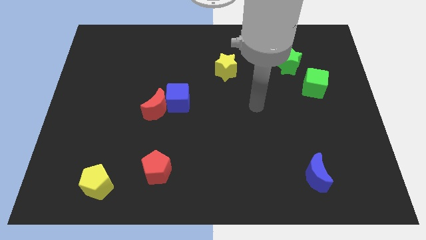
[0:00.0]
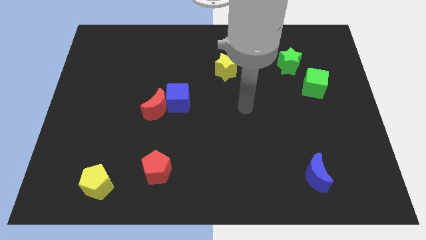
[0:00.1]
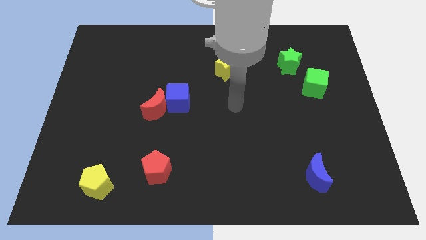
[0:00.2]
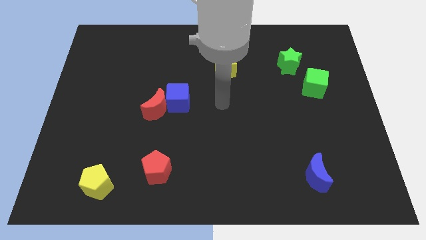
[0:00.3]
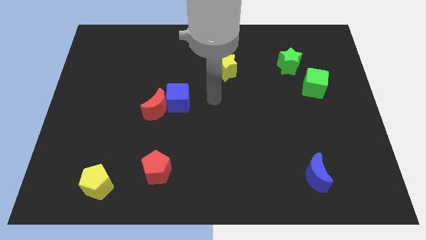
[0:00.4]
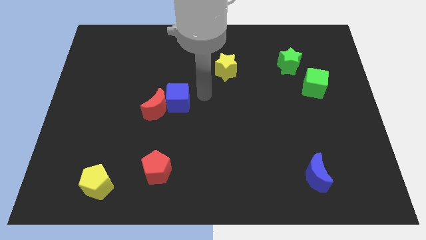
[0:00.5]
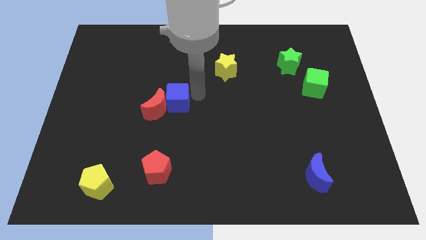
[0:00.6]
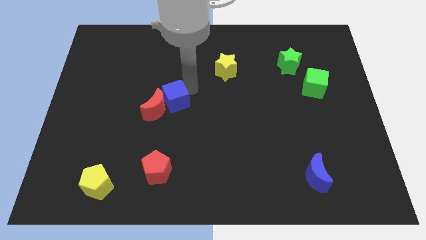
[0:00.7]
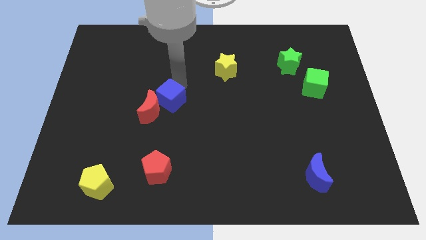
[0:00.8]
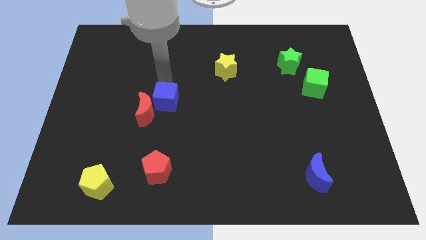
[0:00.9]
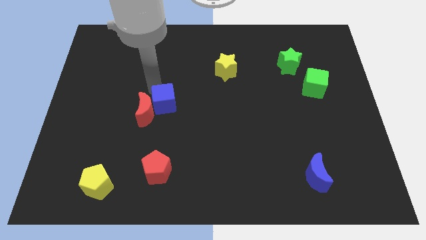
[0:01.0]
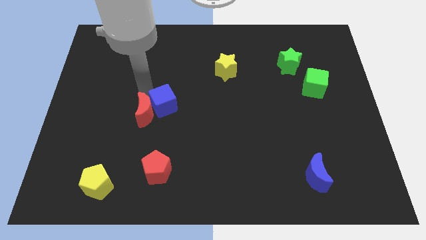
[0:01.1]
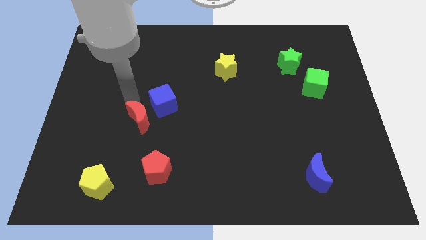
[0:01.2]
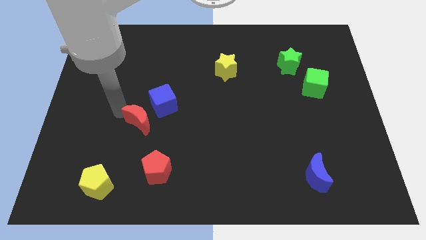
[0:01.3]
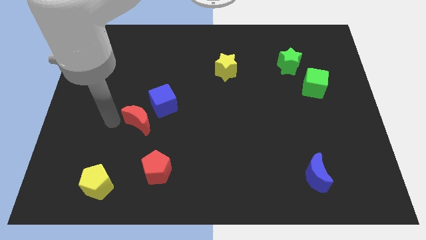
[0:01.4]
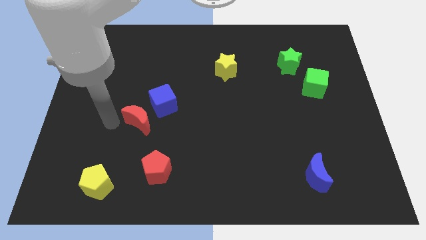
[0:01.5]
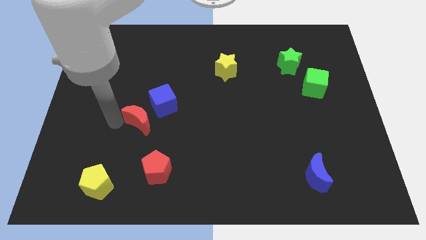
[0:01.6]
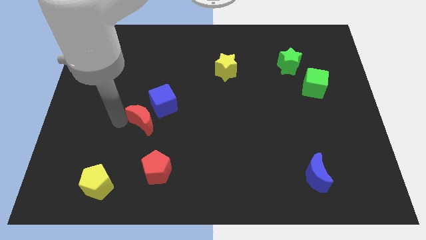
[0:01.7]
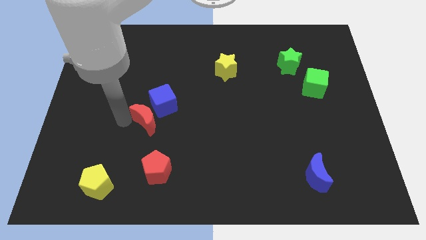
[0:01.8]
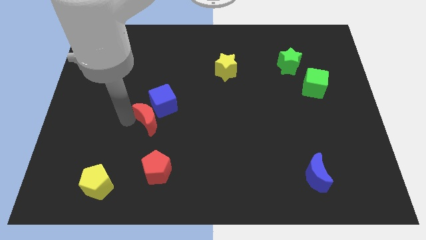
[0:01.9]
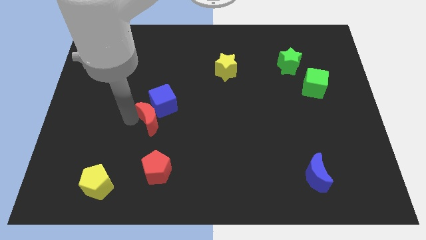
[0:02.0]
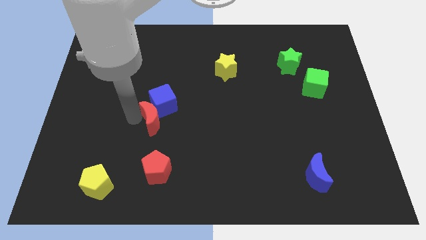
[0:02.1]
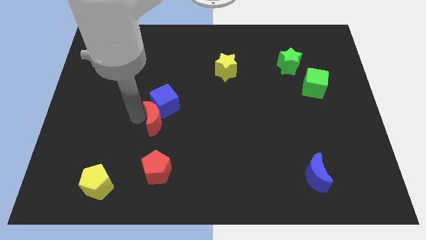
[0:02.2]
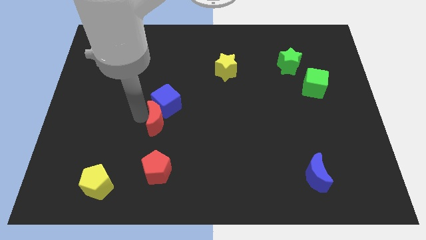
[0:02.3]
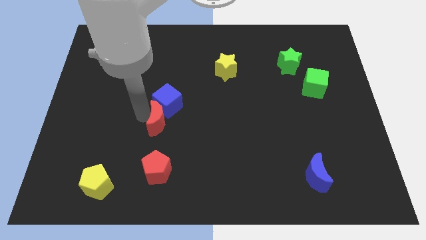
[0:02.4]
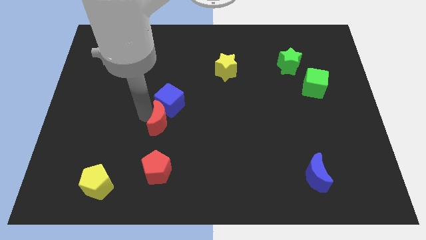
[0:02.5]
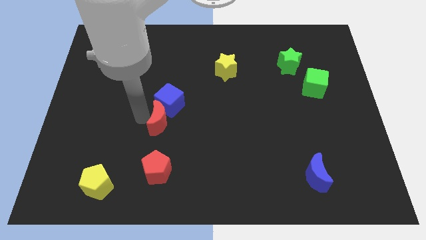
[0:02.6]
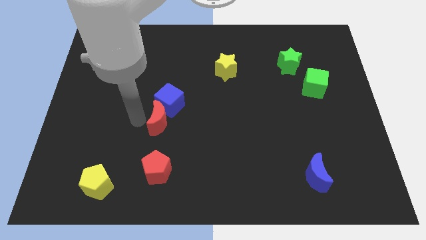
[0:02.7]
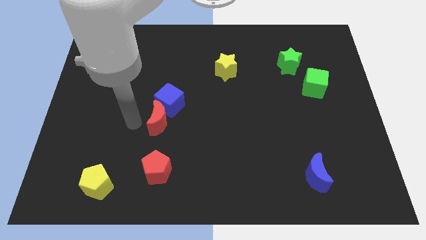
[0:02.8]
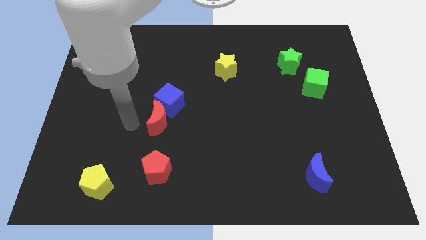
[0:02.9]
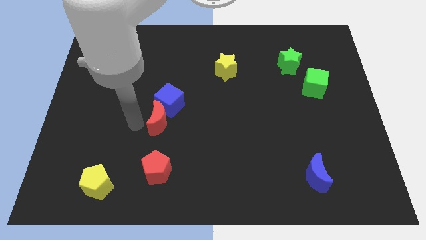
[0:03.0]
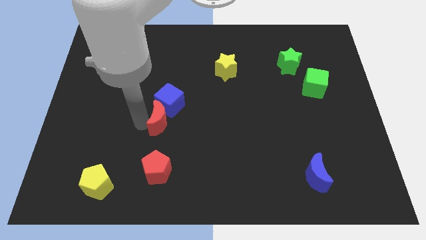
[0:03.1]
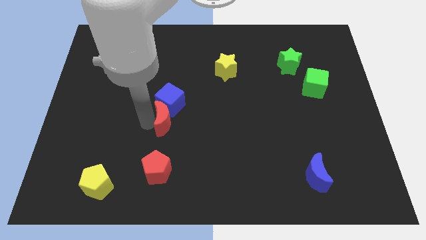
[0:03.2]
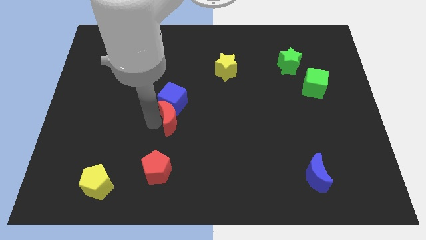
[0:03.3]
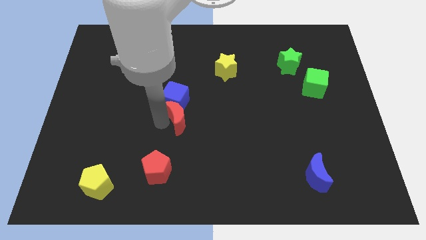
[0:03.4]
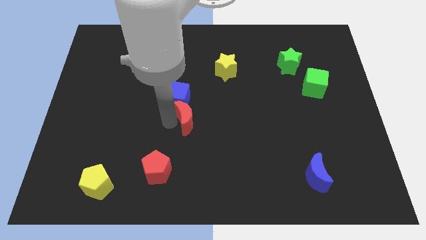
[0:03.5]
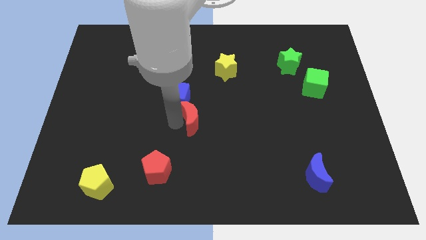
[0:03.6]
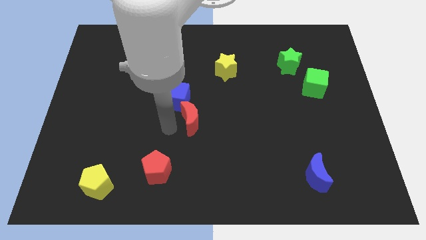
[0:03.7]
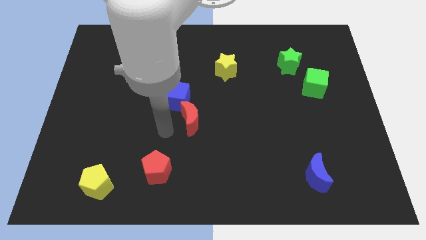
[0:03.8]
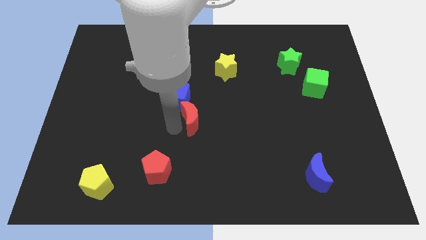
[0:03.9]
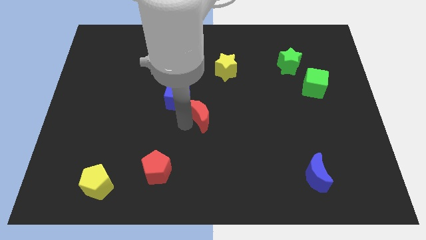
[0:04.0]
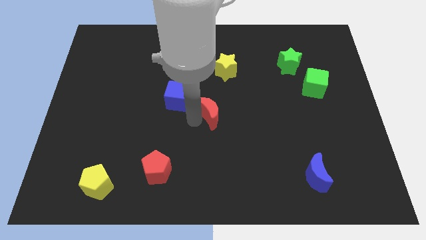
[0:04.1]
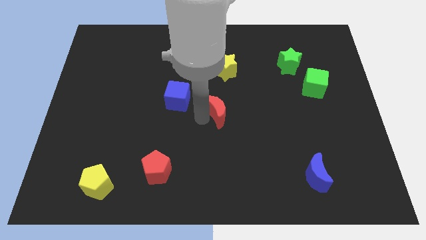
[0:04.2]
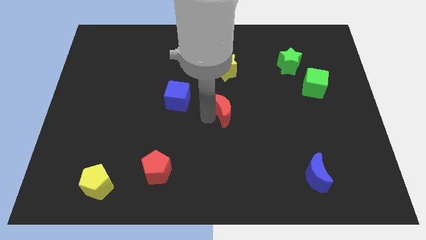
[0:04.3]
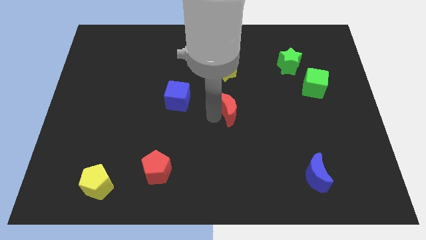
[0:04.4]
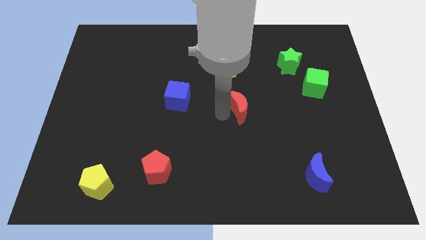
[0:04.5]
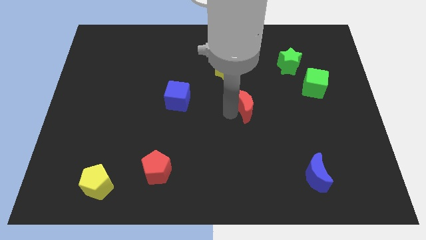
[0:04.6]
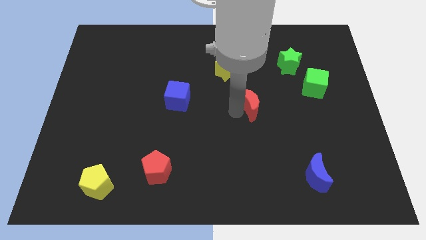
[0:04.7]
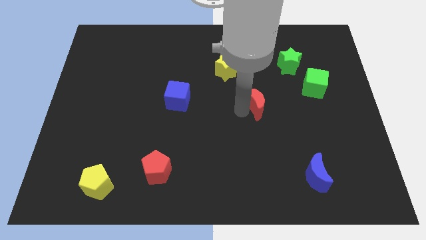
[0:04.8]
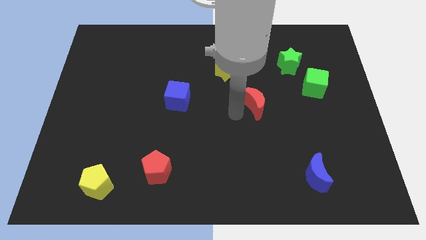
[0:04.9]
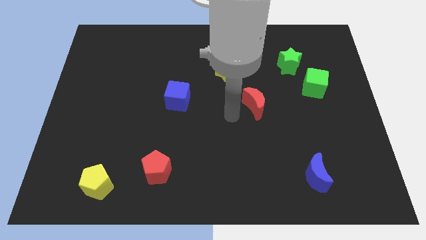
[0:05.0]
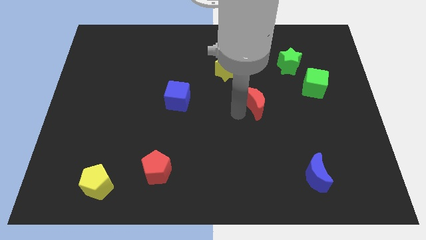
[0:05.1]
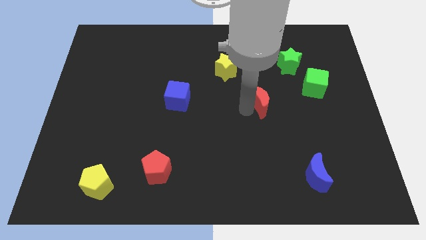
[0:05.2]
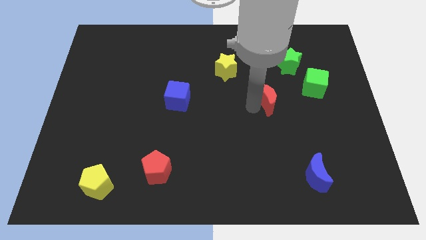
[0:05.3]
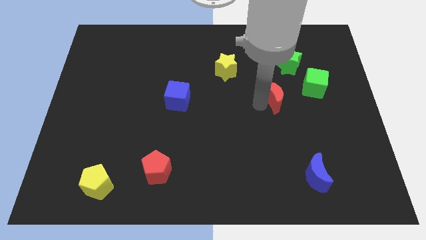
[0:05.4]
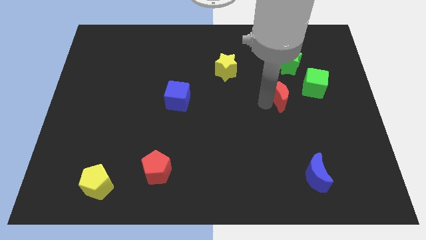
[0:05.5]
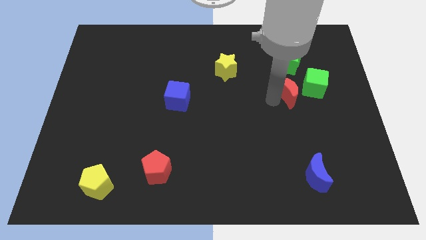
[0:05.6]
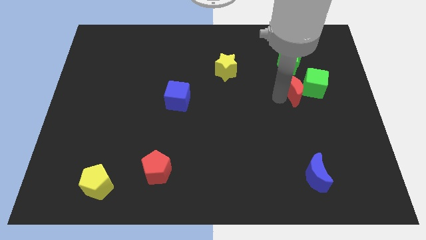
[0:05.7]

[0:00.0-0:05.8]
push the red moon next to the green cube

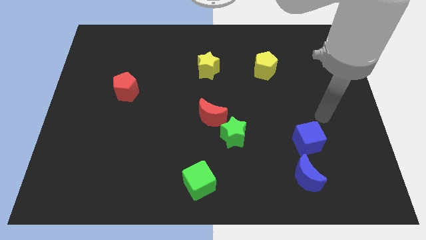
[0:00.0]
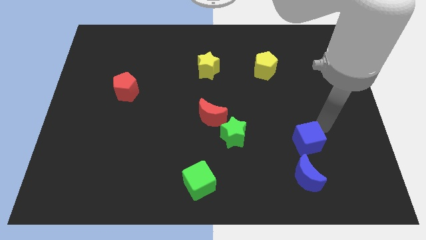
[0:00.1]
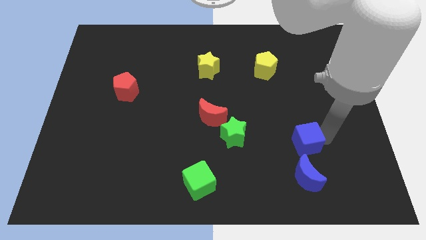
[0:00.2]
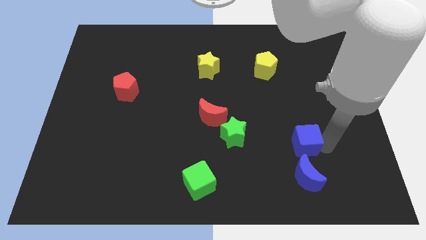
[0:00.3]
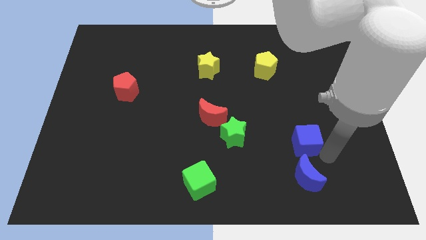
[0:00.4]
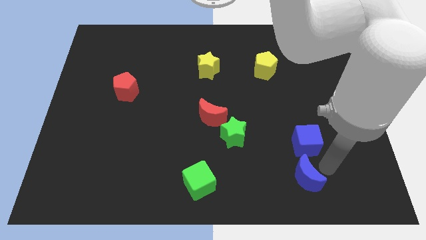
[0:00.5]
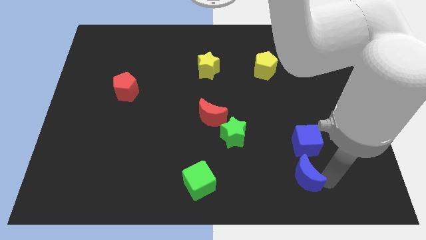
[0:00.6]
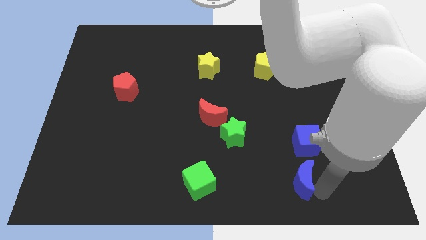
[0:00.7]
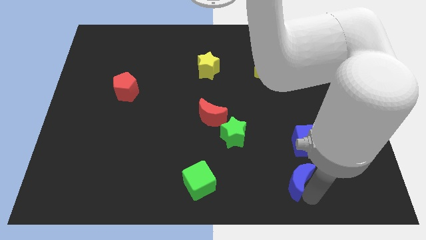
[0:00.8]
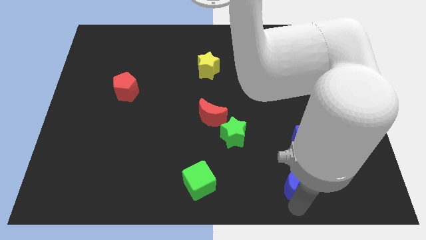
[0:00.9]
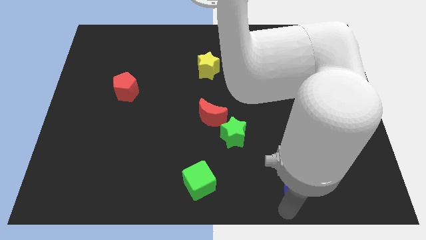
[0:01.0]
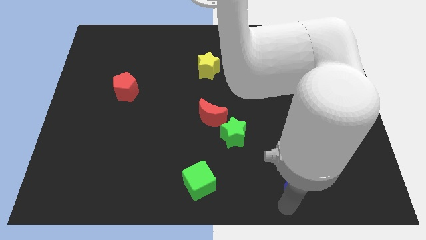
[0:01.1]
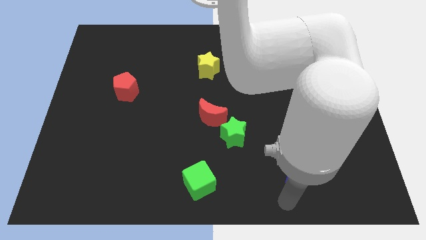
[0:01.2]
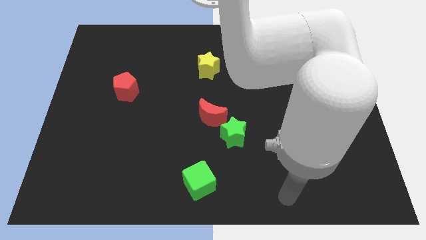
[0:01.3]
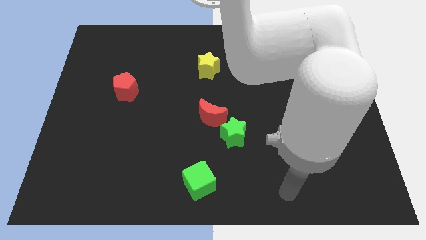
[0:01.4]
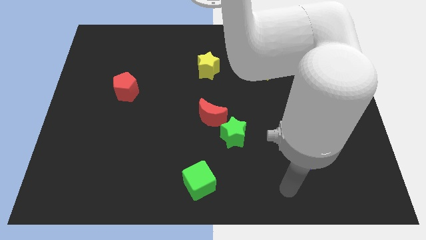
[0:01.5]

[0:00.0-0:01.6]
put the blue moon towards the blue cube
